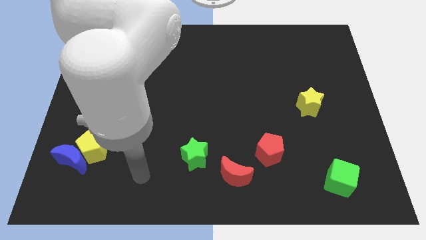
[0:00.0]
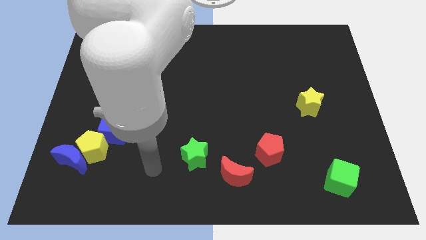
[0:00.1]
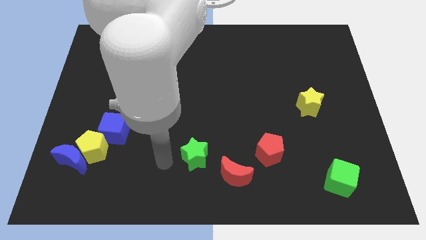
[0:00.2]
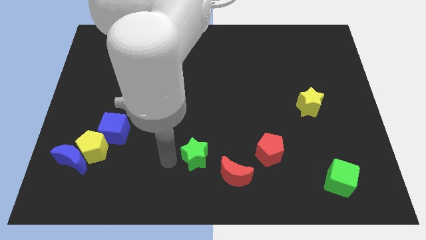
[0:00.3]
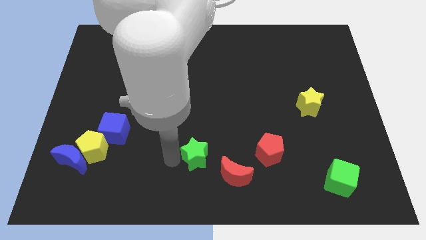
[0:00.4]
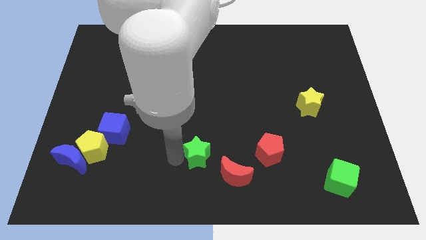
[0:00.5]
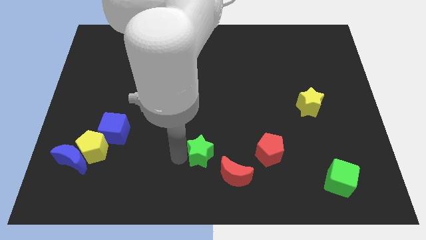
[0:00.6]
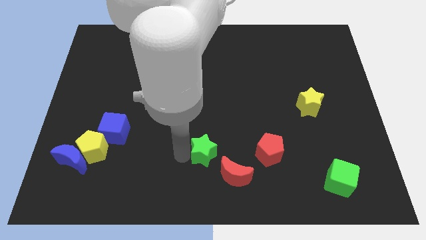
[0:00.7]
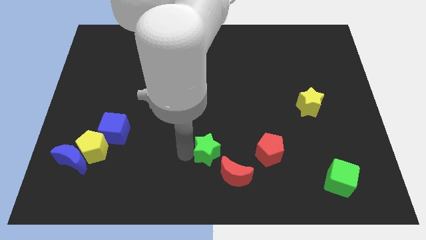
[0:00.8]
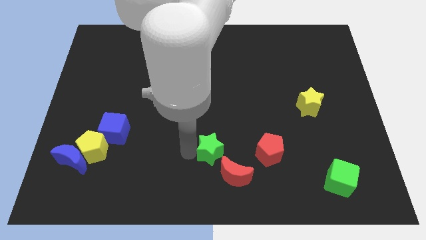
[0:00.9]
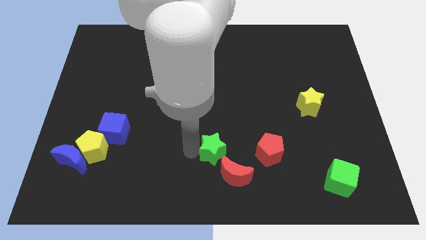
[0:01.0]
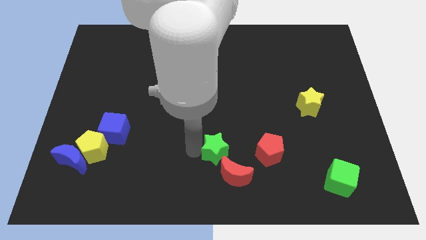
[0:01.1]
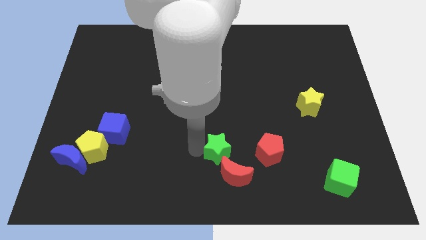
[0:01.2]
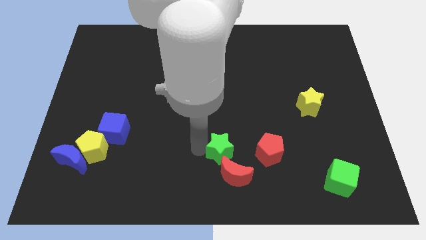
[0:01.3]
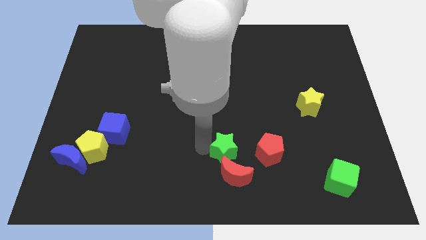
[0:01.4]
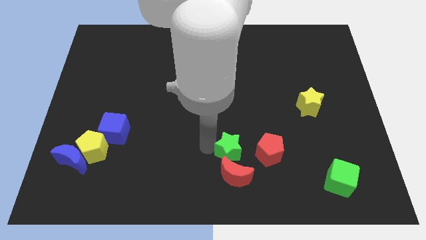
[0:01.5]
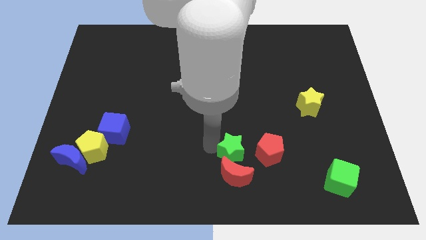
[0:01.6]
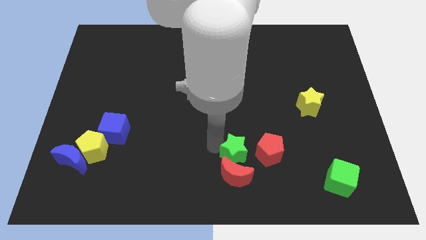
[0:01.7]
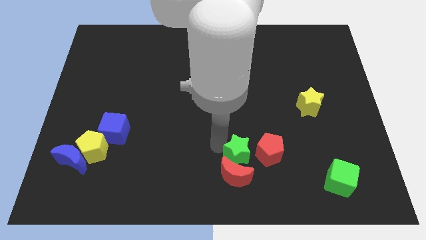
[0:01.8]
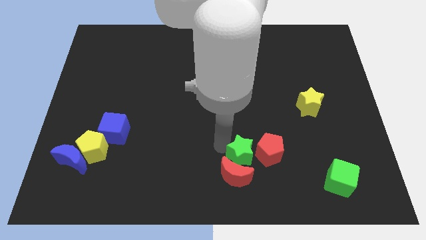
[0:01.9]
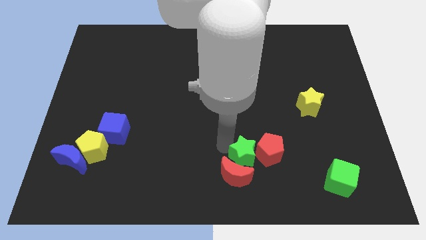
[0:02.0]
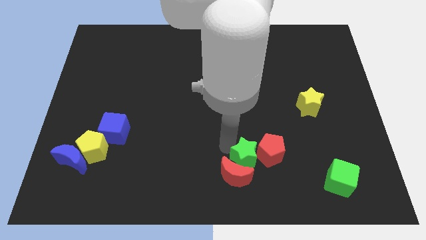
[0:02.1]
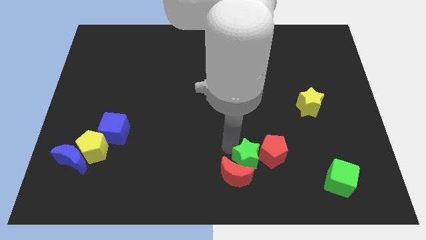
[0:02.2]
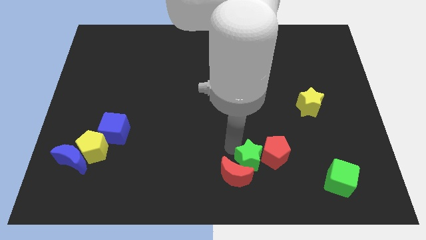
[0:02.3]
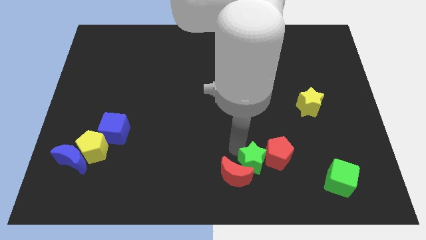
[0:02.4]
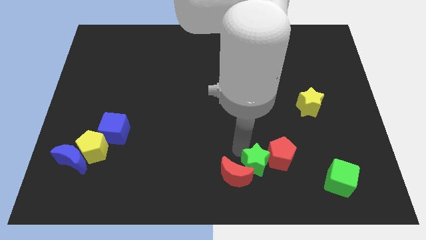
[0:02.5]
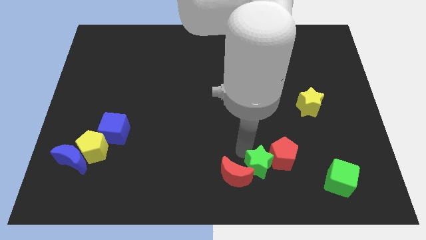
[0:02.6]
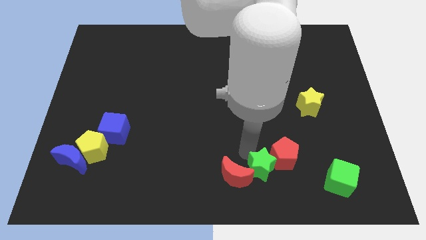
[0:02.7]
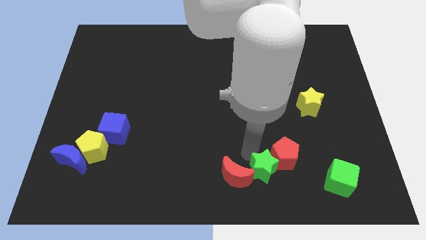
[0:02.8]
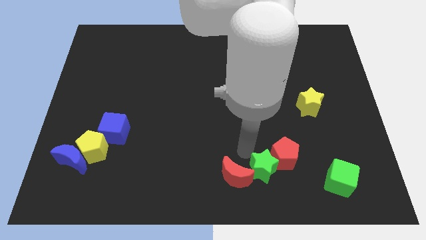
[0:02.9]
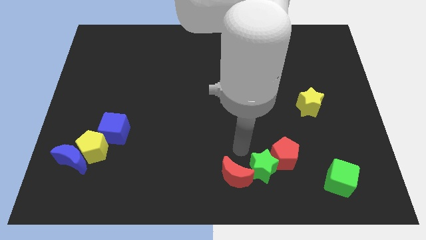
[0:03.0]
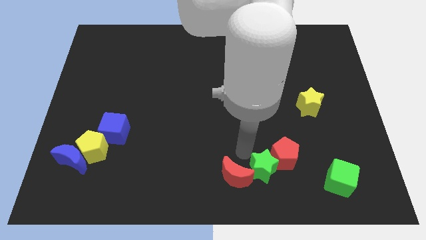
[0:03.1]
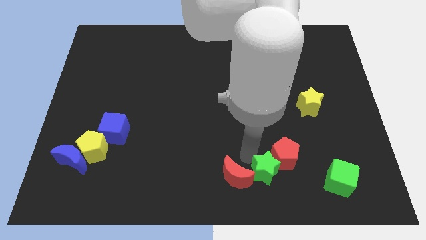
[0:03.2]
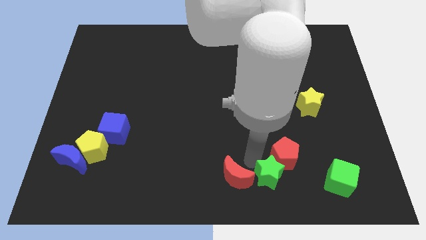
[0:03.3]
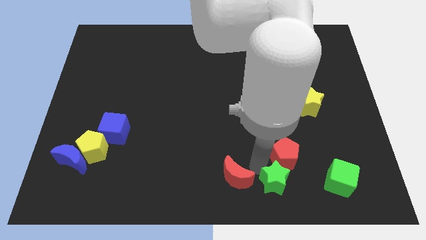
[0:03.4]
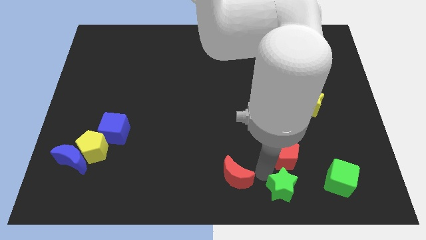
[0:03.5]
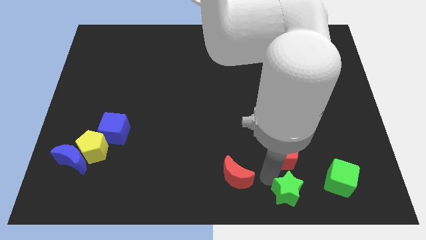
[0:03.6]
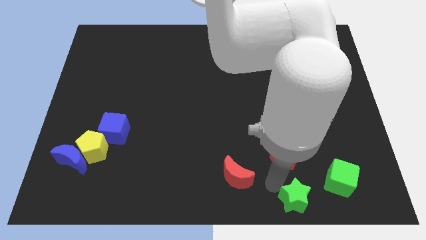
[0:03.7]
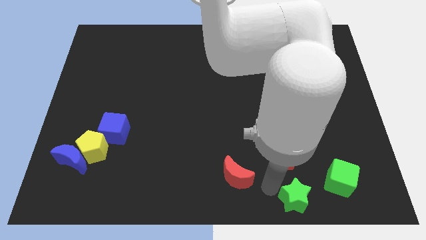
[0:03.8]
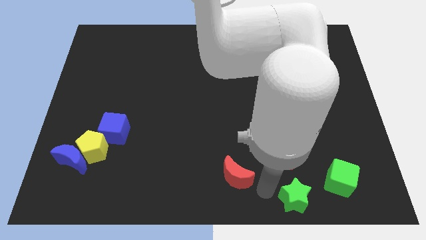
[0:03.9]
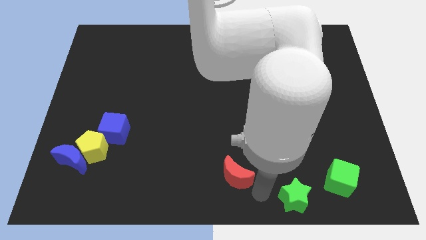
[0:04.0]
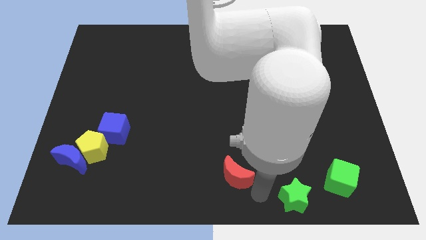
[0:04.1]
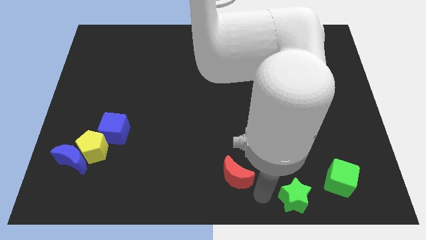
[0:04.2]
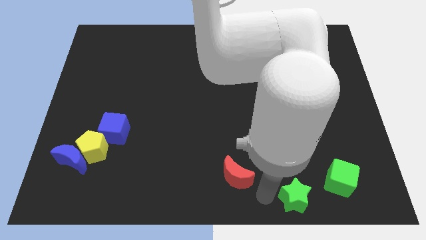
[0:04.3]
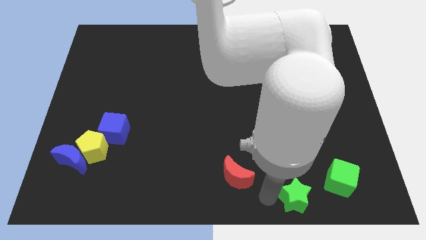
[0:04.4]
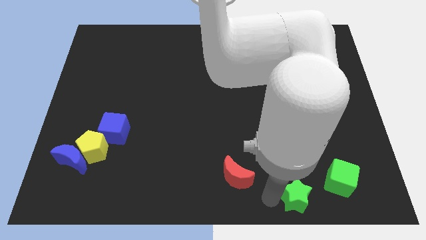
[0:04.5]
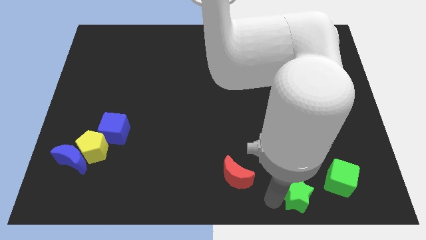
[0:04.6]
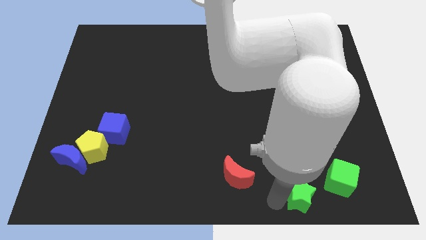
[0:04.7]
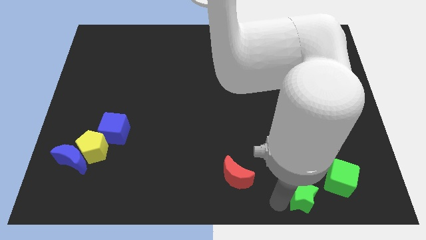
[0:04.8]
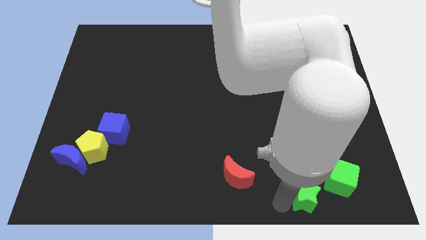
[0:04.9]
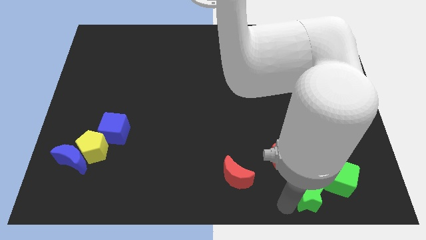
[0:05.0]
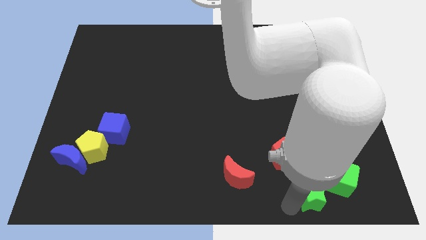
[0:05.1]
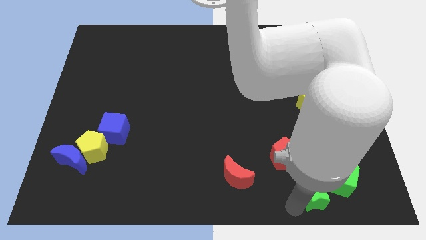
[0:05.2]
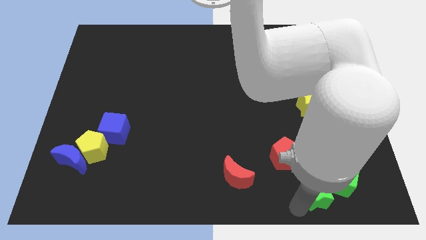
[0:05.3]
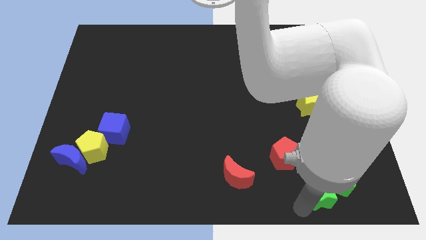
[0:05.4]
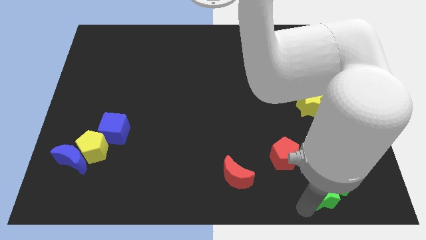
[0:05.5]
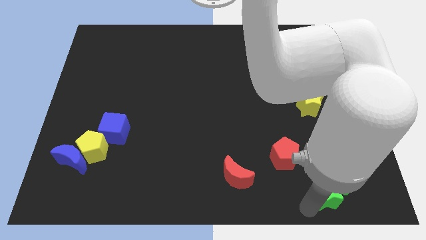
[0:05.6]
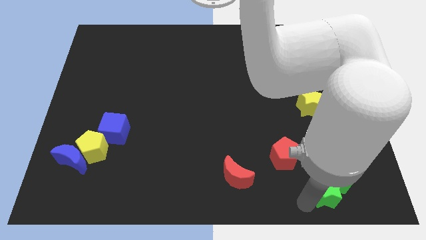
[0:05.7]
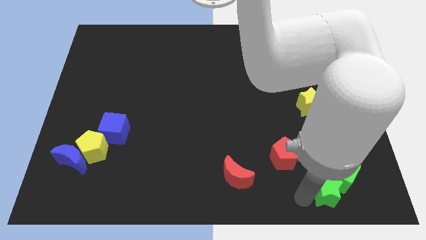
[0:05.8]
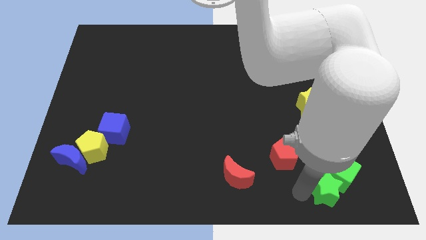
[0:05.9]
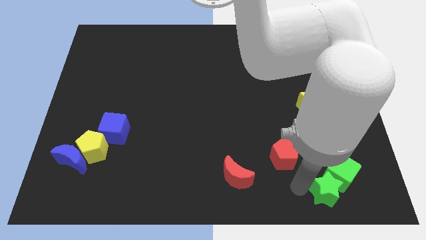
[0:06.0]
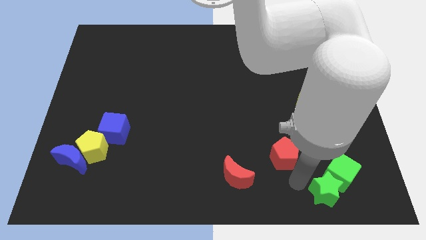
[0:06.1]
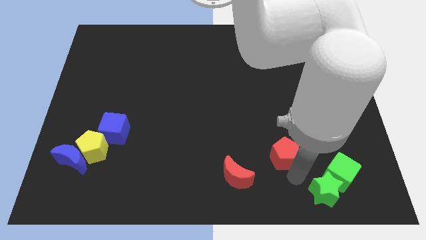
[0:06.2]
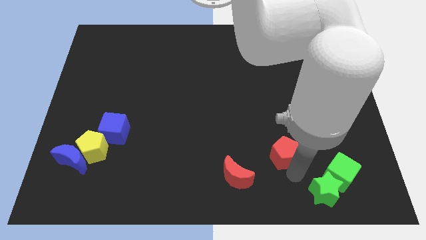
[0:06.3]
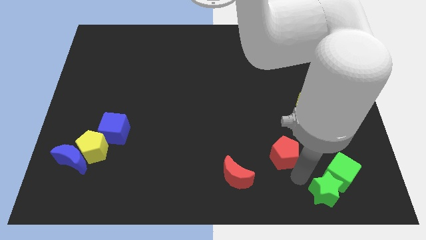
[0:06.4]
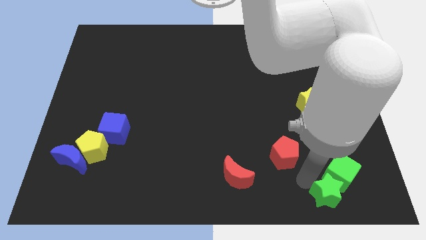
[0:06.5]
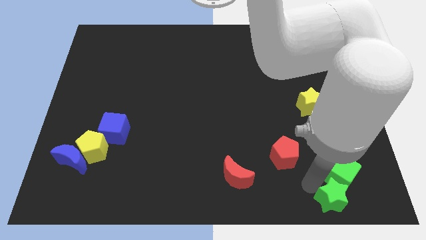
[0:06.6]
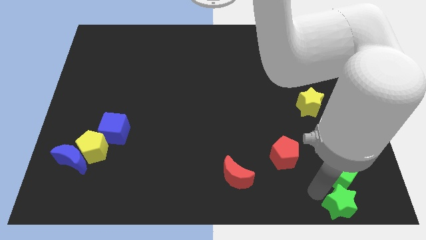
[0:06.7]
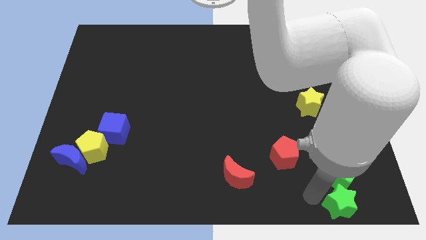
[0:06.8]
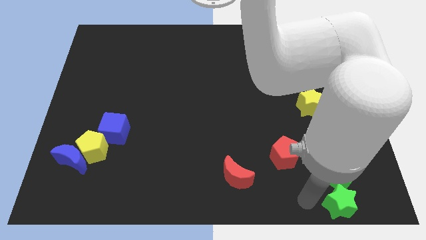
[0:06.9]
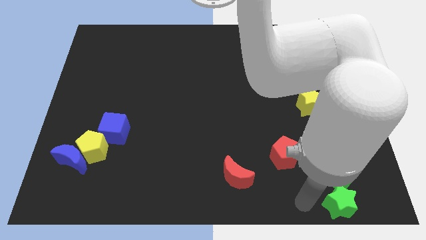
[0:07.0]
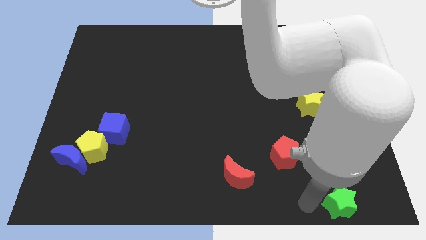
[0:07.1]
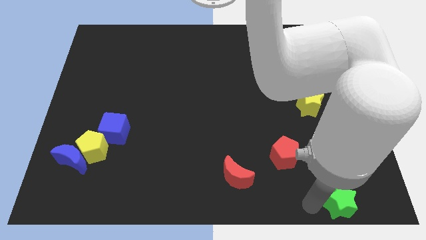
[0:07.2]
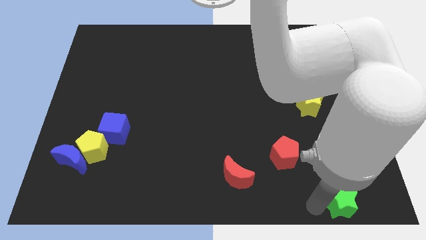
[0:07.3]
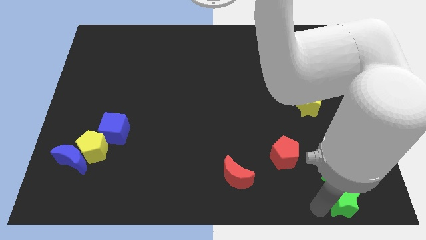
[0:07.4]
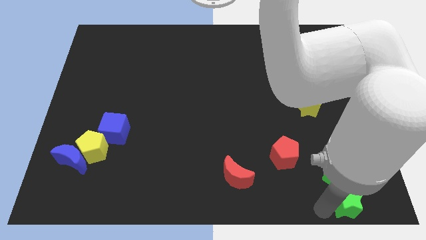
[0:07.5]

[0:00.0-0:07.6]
move the green star to the lower right corner

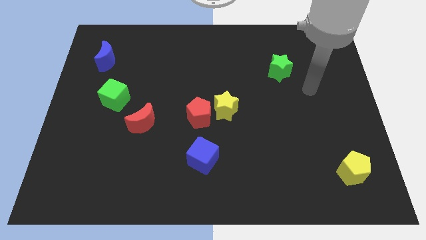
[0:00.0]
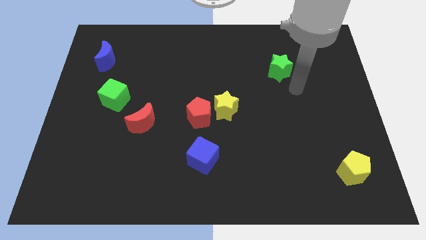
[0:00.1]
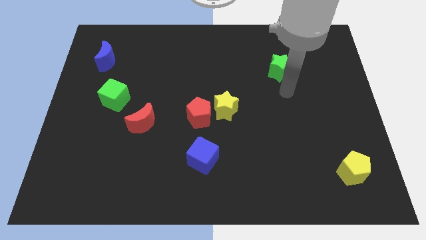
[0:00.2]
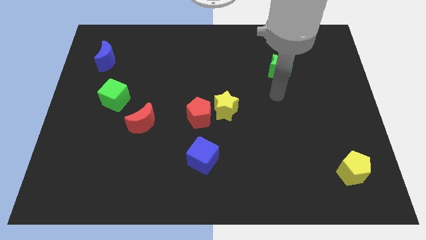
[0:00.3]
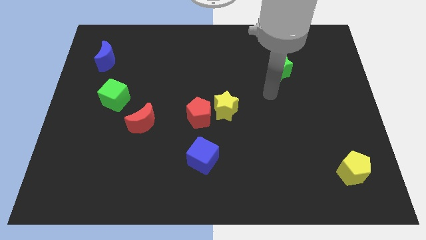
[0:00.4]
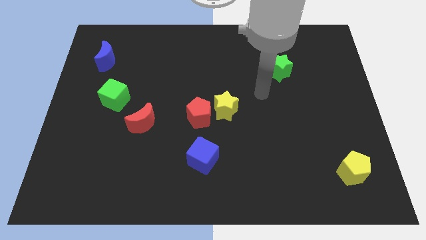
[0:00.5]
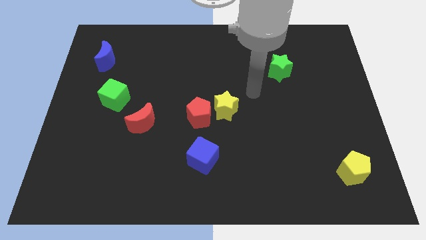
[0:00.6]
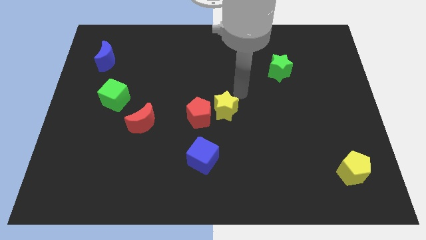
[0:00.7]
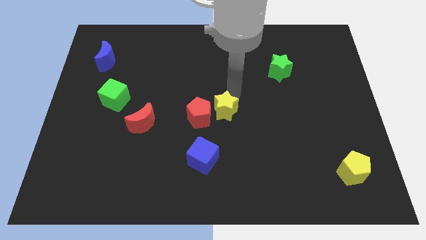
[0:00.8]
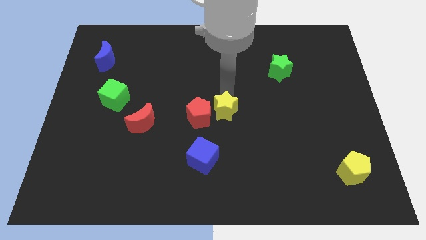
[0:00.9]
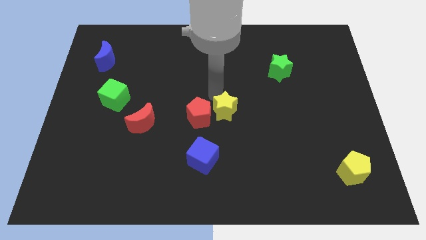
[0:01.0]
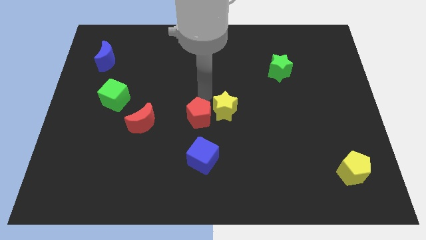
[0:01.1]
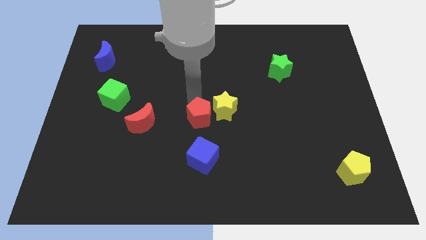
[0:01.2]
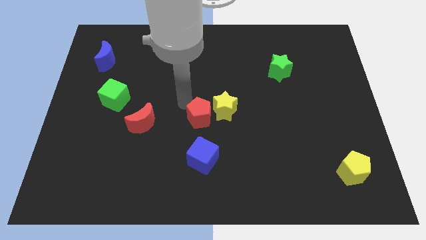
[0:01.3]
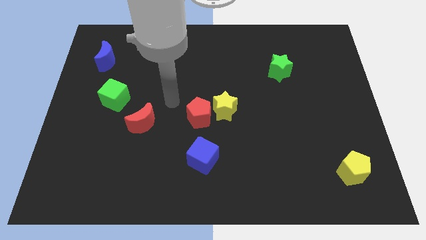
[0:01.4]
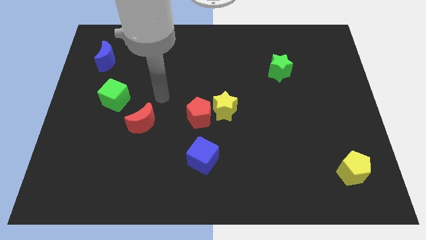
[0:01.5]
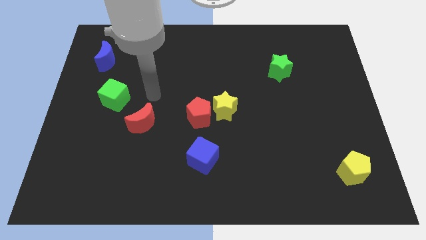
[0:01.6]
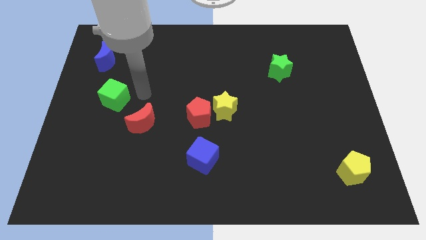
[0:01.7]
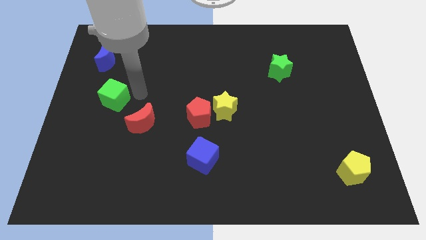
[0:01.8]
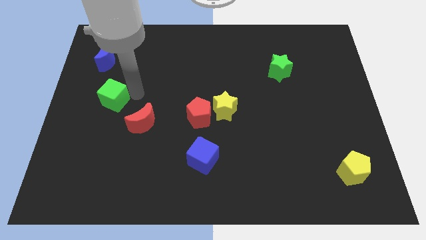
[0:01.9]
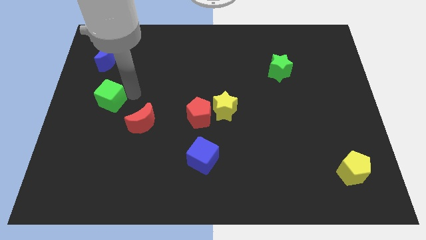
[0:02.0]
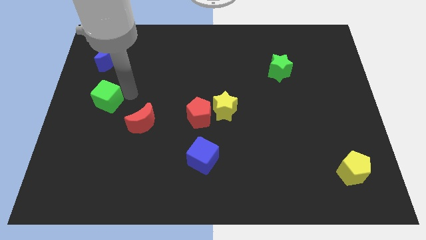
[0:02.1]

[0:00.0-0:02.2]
slide the green cube to the center left
